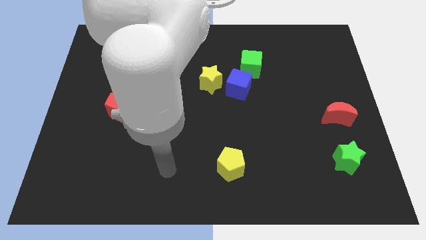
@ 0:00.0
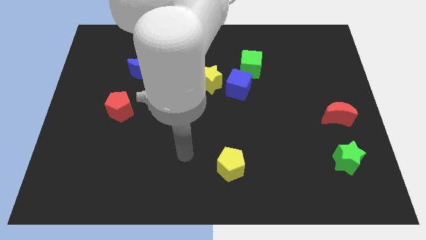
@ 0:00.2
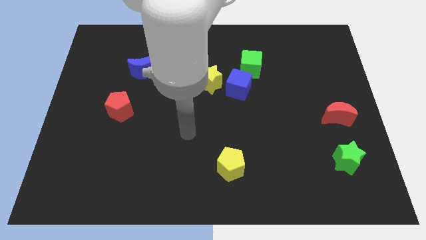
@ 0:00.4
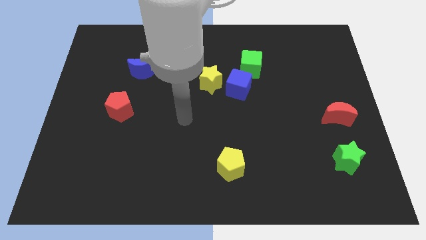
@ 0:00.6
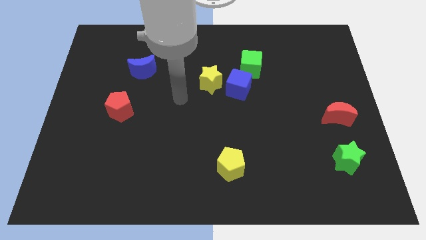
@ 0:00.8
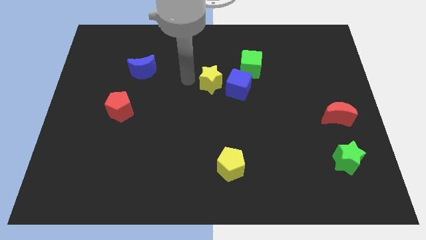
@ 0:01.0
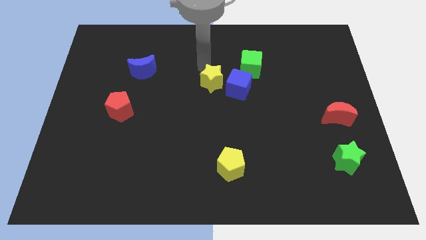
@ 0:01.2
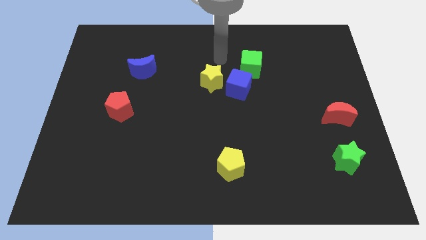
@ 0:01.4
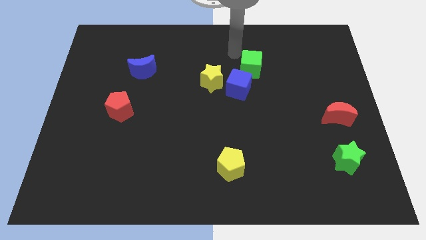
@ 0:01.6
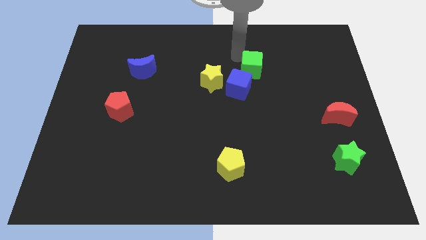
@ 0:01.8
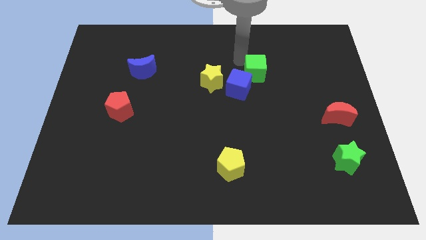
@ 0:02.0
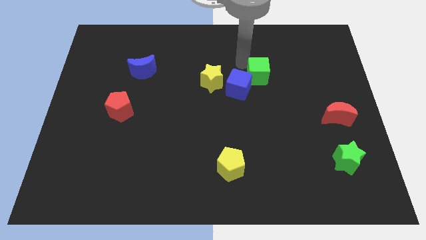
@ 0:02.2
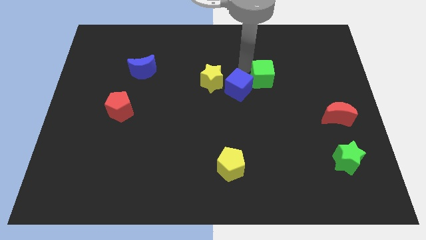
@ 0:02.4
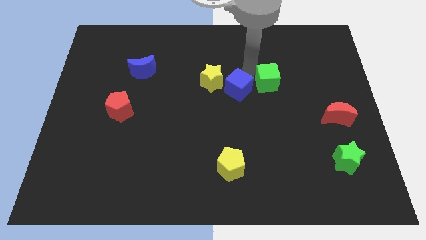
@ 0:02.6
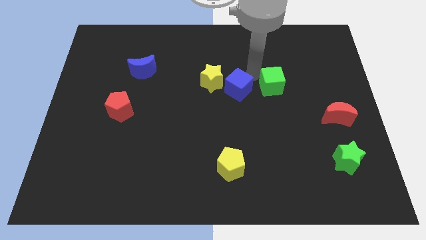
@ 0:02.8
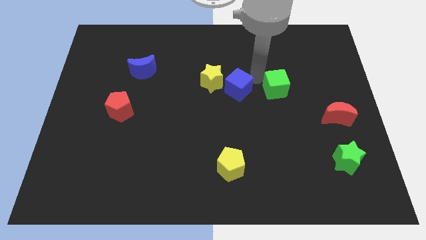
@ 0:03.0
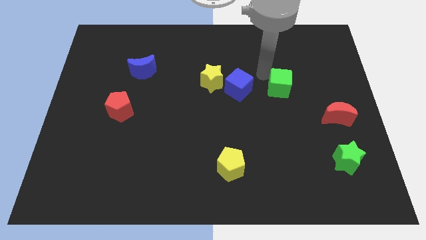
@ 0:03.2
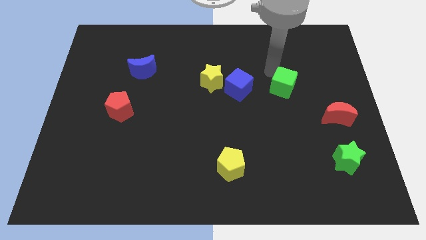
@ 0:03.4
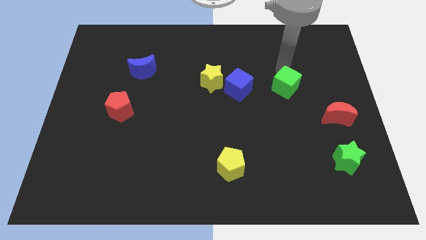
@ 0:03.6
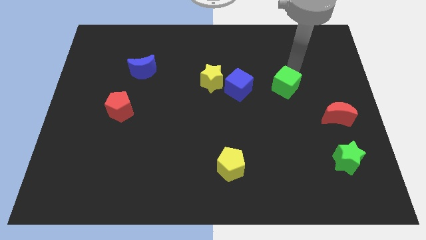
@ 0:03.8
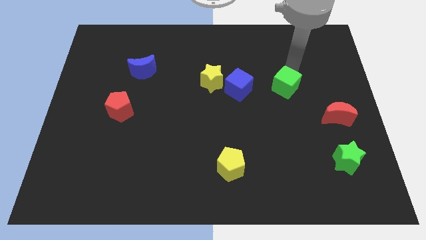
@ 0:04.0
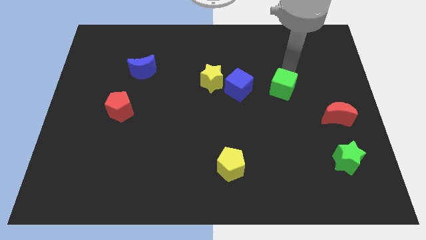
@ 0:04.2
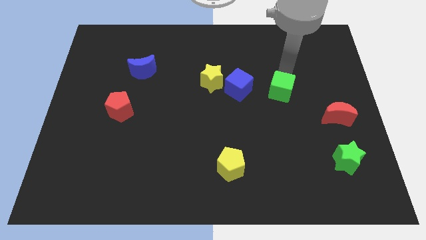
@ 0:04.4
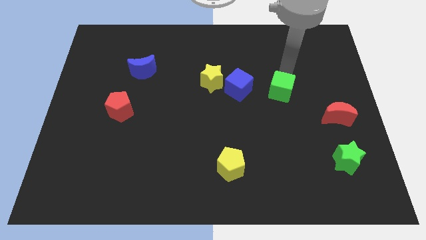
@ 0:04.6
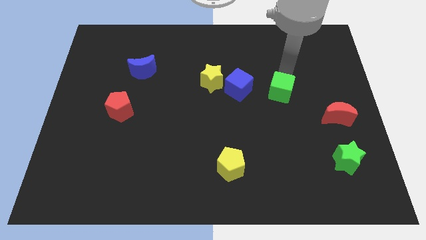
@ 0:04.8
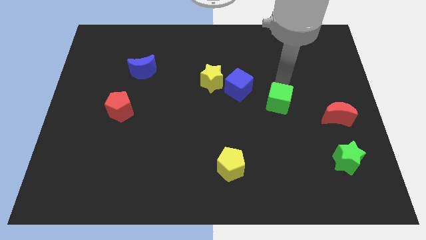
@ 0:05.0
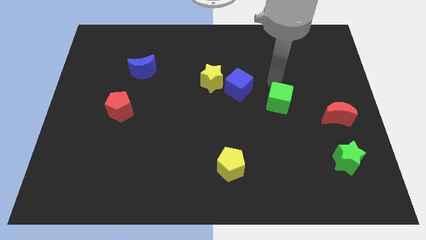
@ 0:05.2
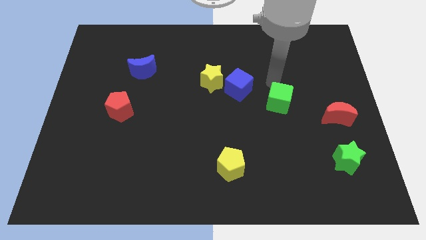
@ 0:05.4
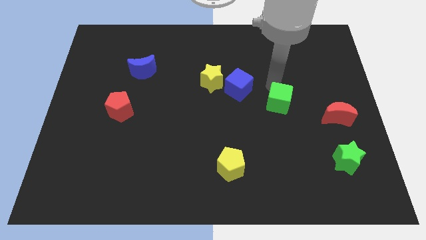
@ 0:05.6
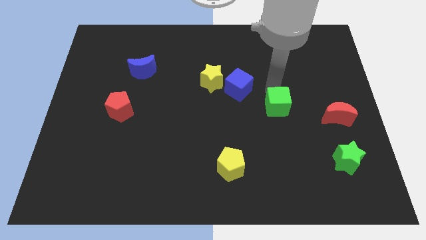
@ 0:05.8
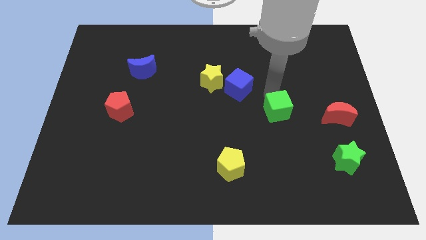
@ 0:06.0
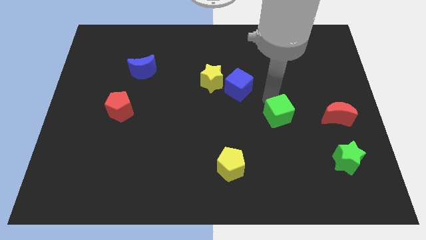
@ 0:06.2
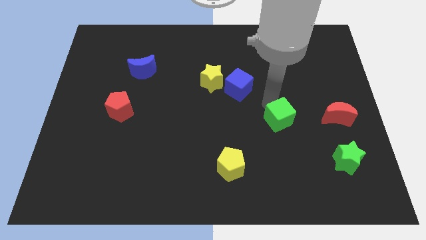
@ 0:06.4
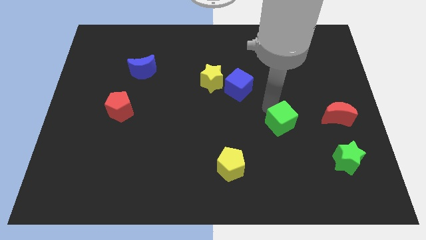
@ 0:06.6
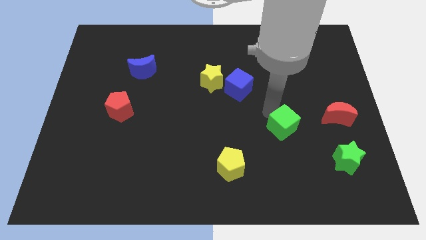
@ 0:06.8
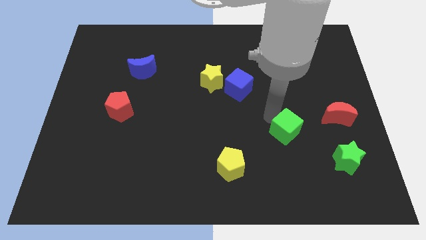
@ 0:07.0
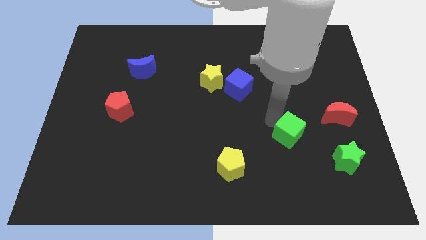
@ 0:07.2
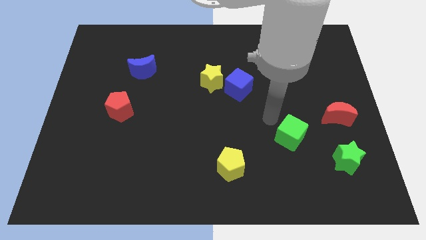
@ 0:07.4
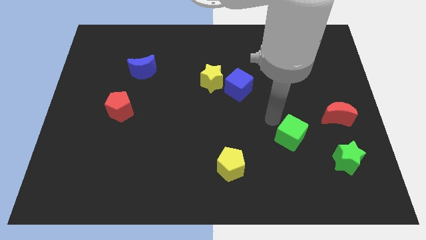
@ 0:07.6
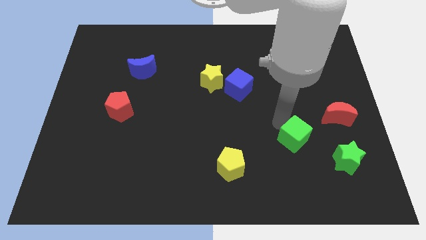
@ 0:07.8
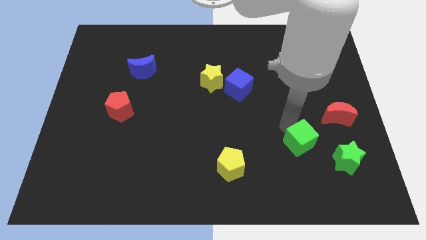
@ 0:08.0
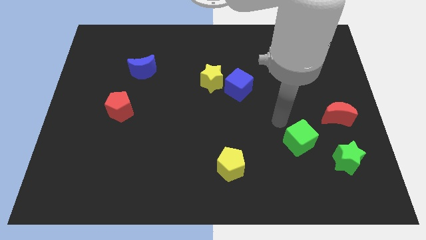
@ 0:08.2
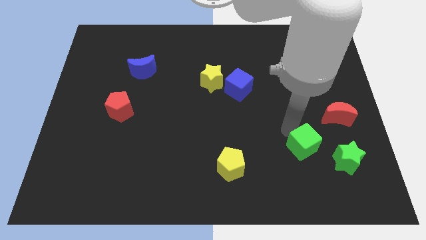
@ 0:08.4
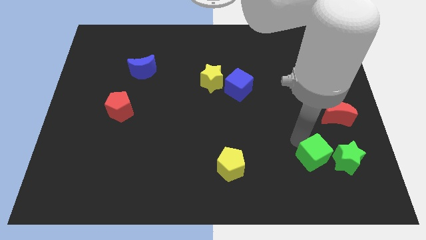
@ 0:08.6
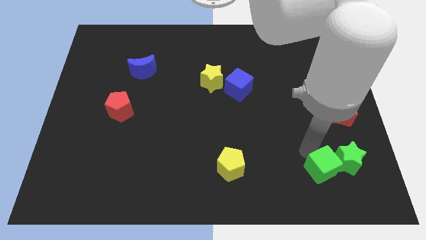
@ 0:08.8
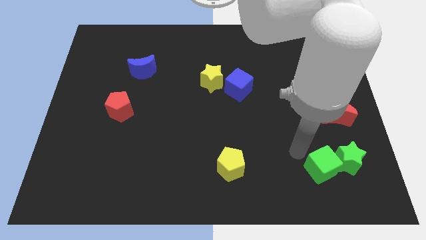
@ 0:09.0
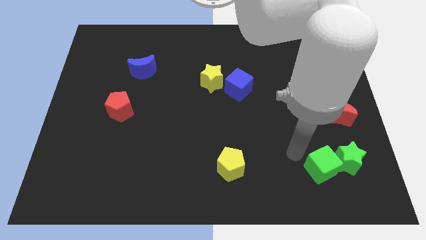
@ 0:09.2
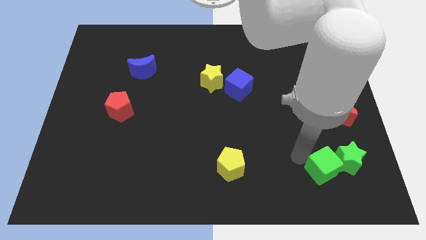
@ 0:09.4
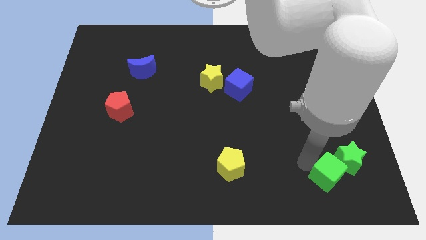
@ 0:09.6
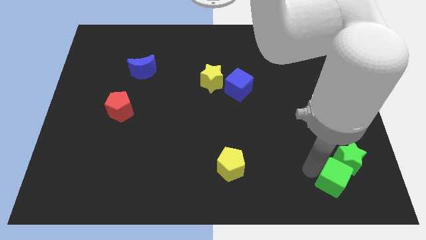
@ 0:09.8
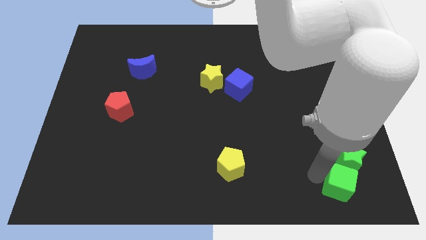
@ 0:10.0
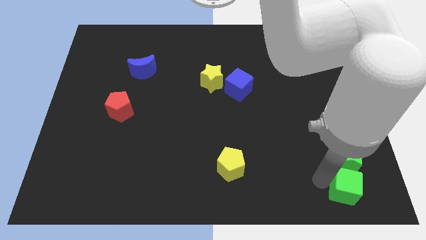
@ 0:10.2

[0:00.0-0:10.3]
slide the green cube to the bottom right of the board

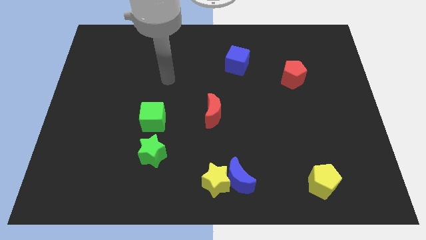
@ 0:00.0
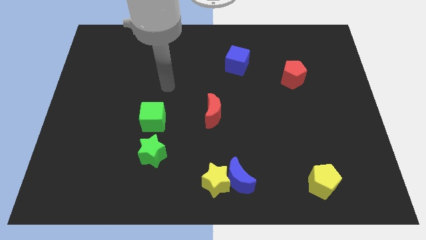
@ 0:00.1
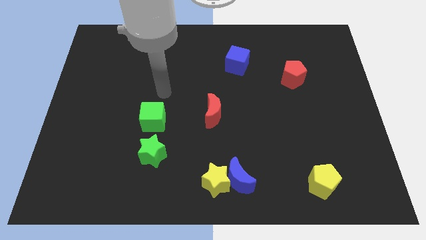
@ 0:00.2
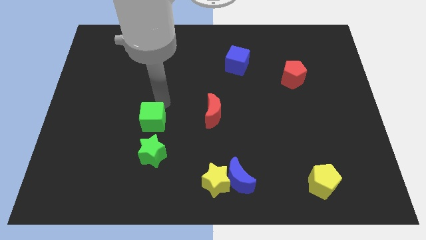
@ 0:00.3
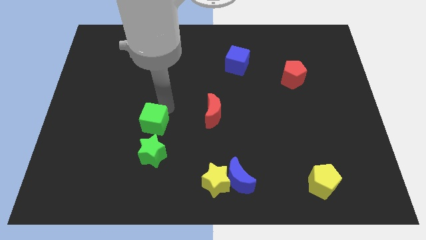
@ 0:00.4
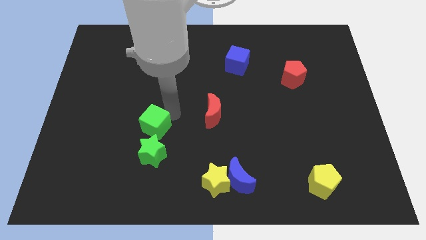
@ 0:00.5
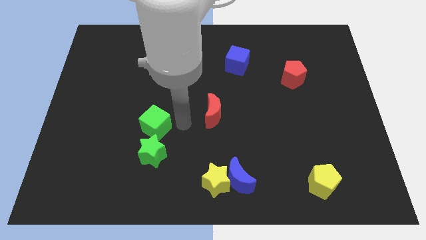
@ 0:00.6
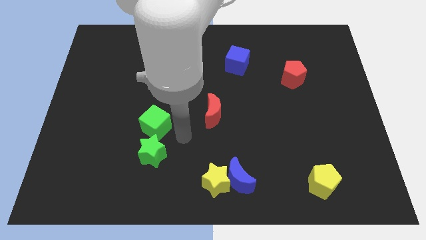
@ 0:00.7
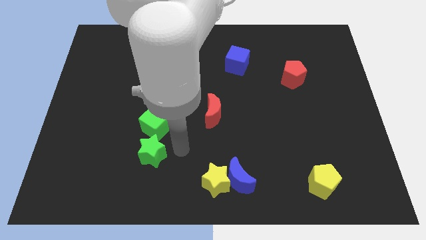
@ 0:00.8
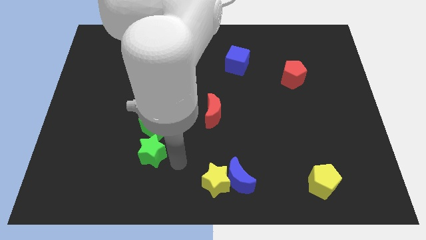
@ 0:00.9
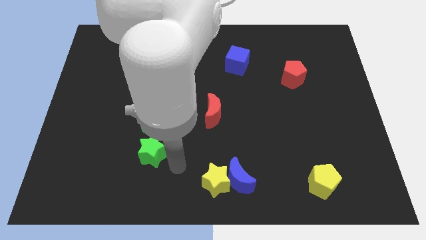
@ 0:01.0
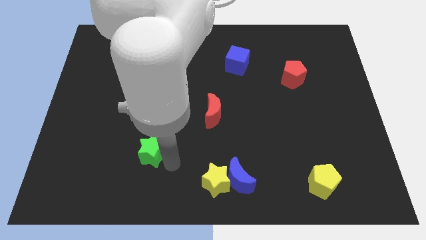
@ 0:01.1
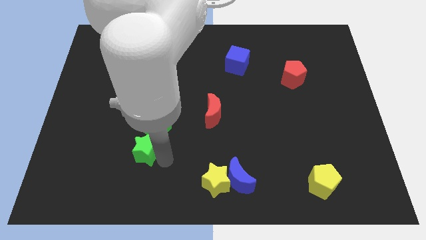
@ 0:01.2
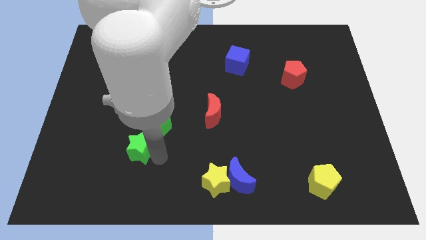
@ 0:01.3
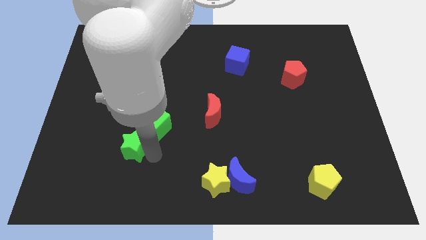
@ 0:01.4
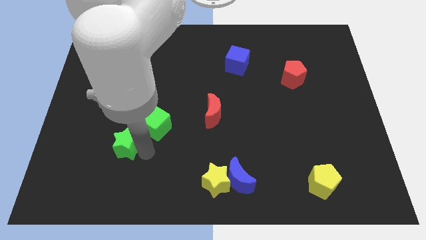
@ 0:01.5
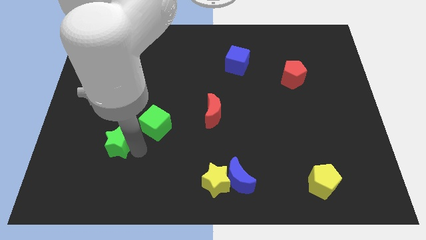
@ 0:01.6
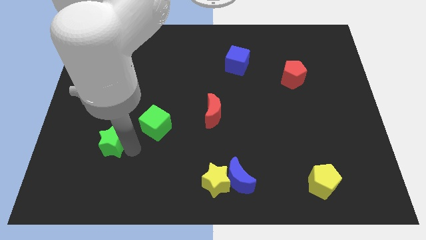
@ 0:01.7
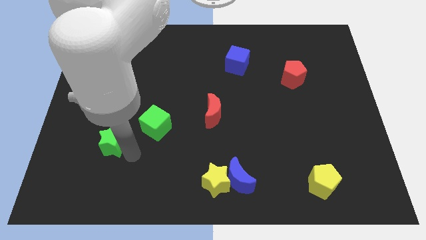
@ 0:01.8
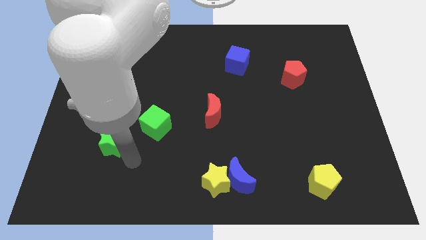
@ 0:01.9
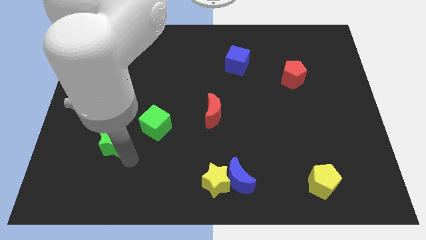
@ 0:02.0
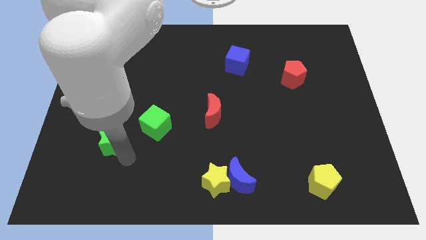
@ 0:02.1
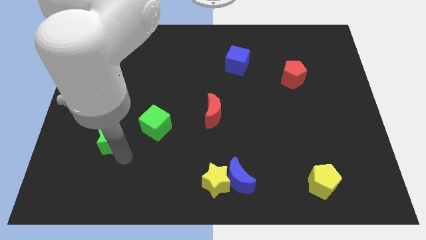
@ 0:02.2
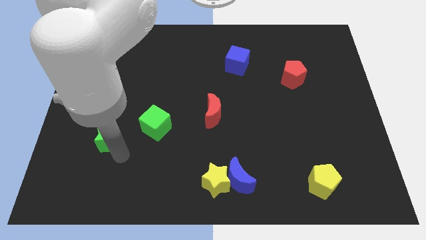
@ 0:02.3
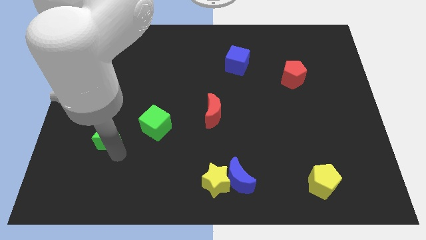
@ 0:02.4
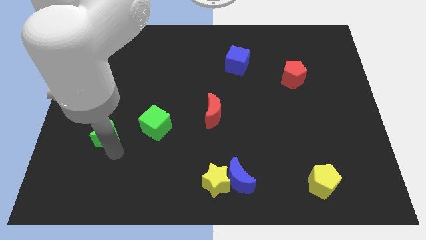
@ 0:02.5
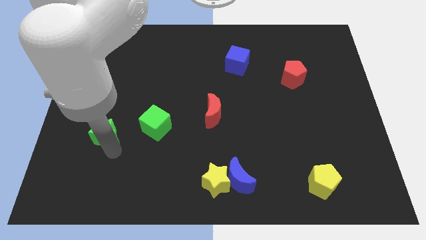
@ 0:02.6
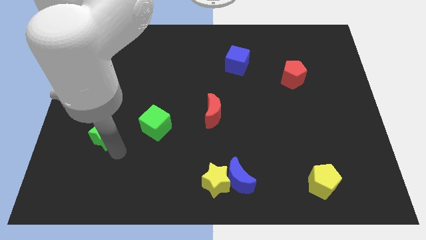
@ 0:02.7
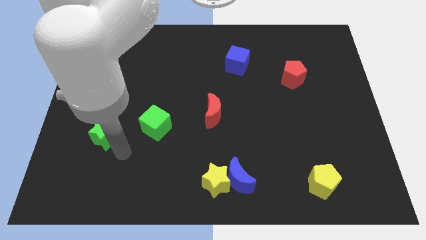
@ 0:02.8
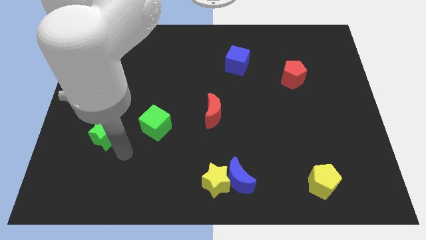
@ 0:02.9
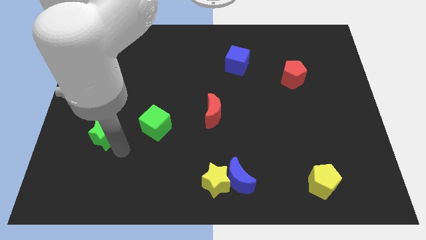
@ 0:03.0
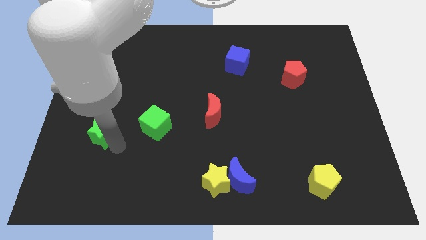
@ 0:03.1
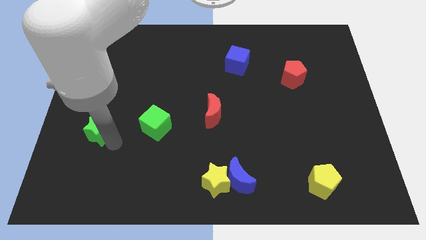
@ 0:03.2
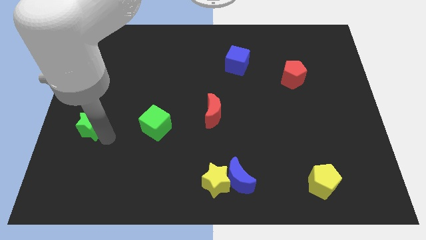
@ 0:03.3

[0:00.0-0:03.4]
move the green star to the left side
